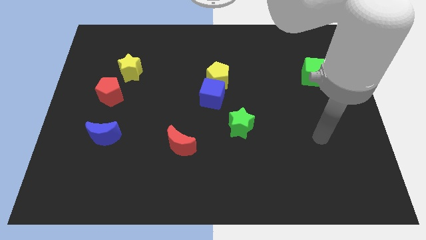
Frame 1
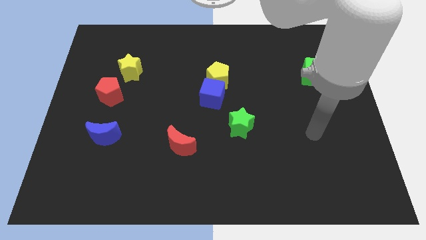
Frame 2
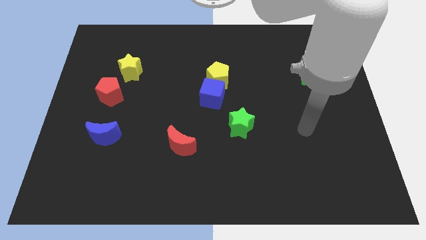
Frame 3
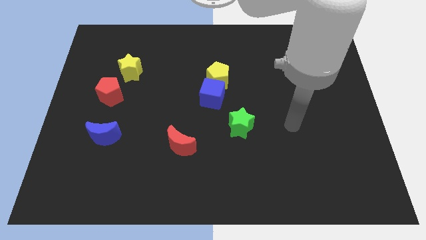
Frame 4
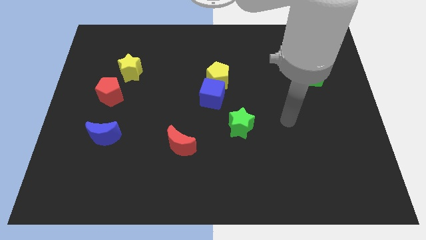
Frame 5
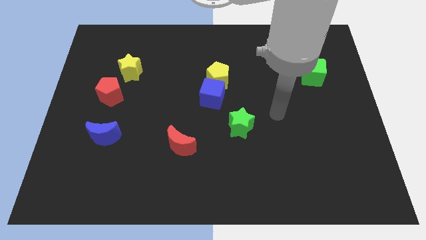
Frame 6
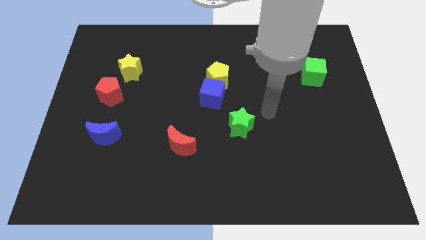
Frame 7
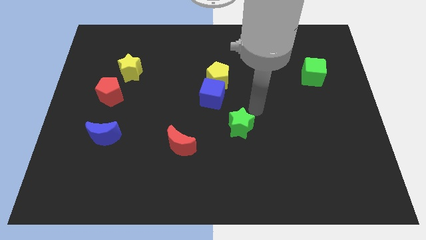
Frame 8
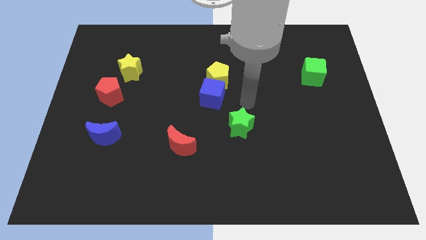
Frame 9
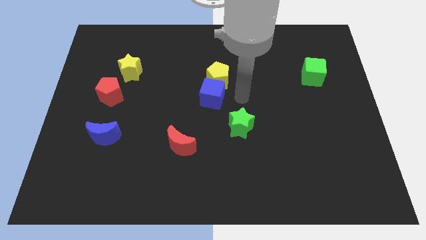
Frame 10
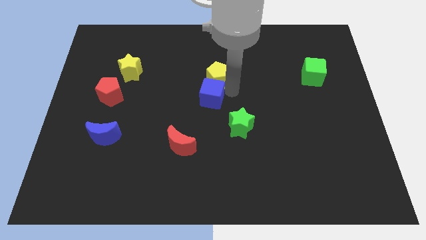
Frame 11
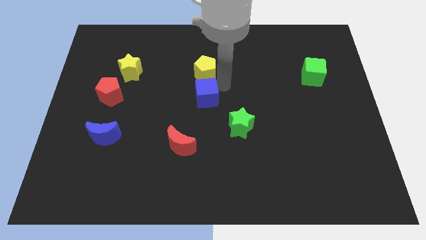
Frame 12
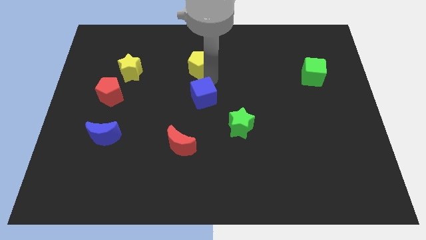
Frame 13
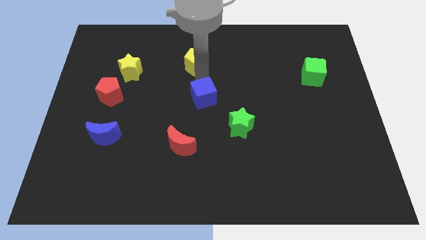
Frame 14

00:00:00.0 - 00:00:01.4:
separate the blue cube from the yellow pentagon

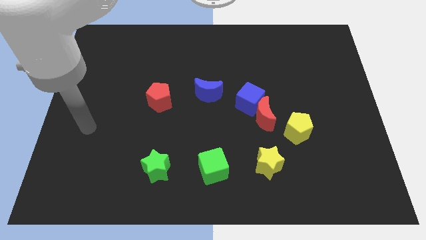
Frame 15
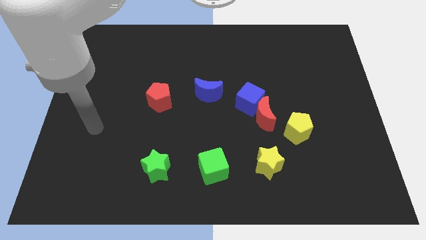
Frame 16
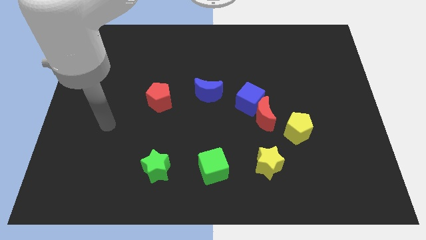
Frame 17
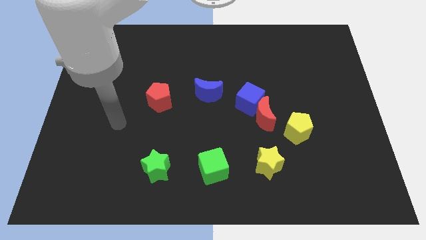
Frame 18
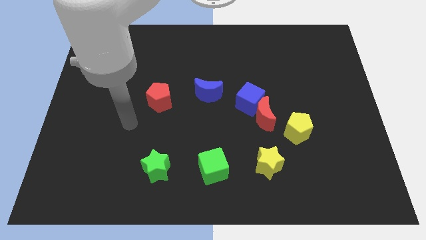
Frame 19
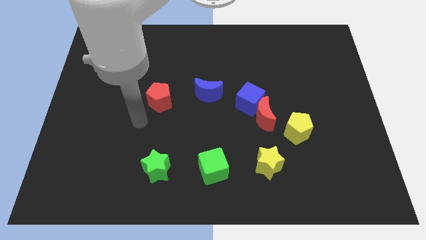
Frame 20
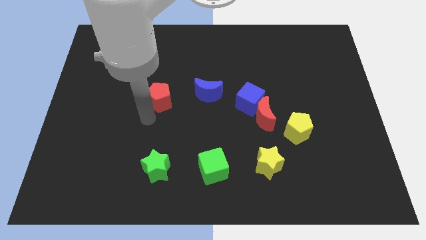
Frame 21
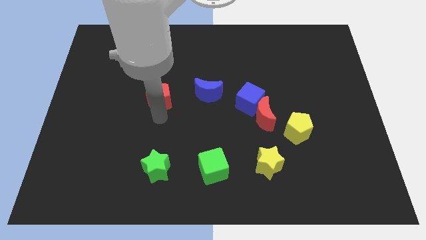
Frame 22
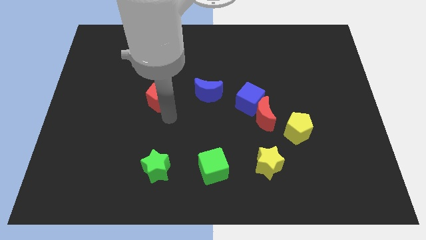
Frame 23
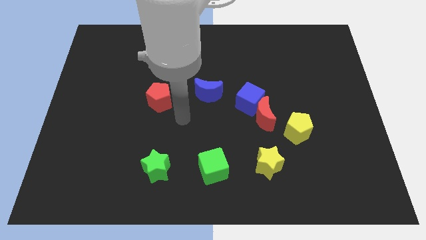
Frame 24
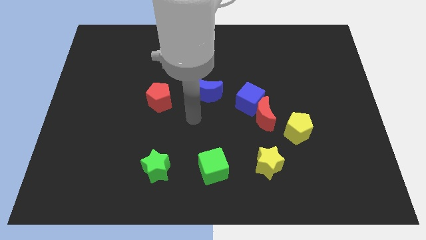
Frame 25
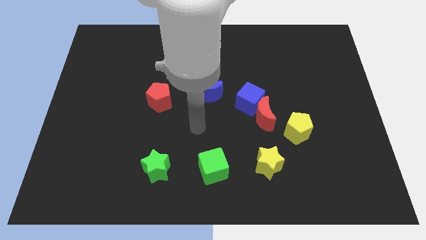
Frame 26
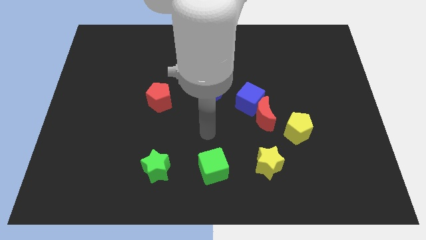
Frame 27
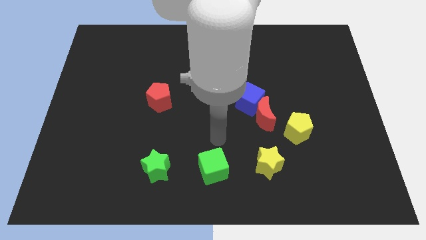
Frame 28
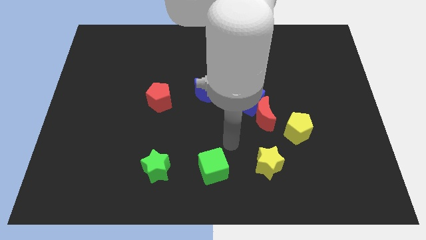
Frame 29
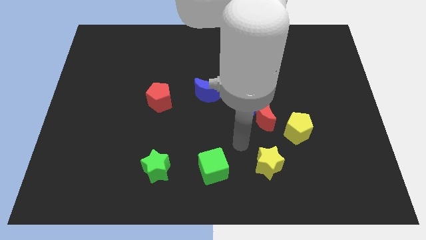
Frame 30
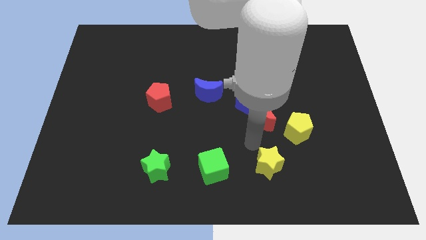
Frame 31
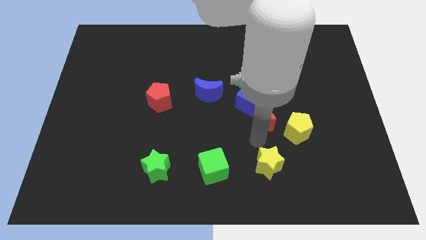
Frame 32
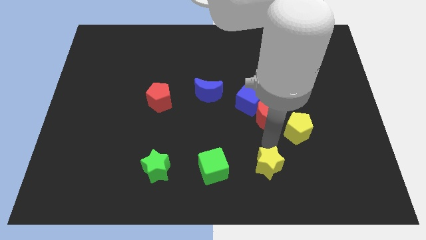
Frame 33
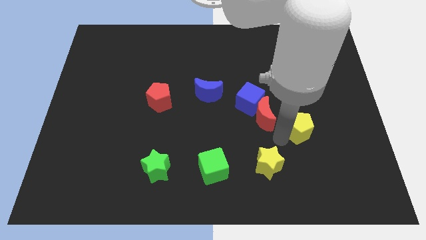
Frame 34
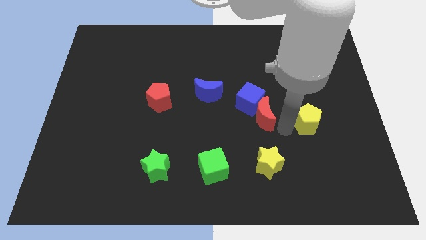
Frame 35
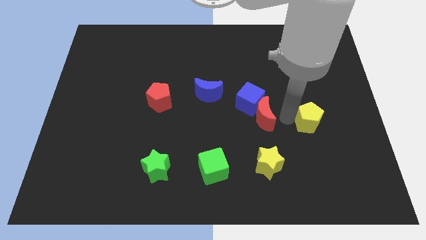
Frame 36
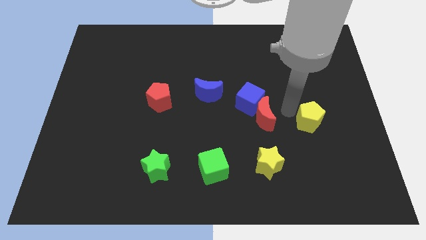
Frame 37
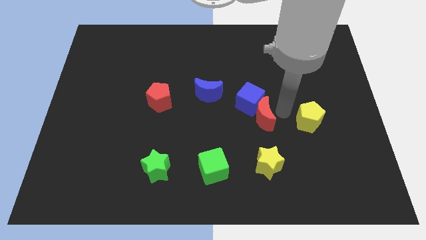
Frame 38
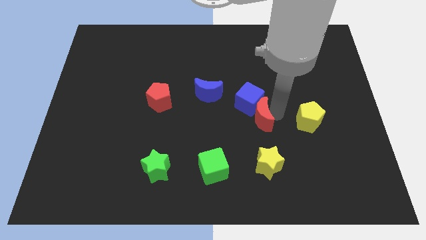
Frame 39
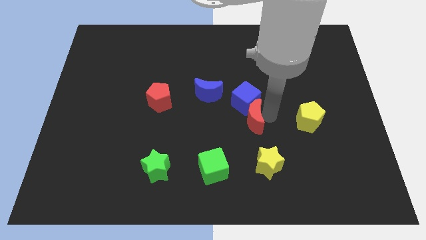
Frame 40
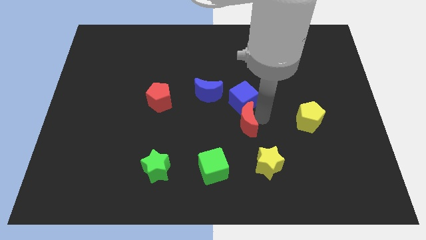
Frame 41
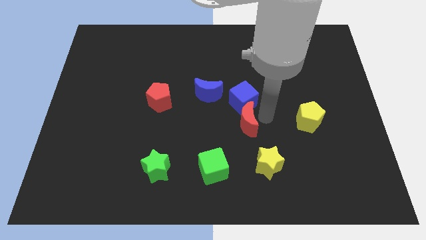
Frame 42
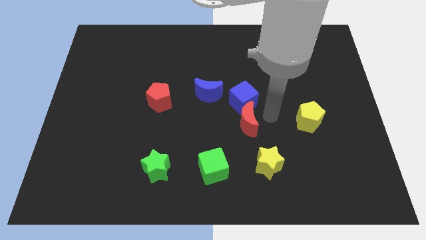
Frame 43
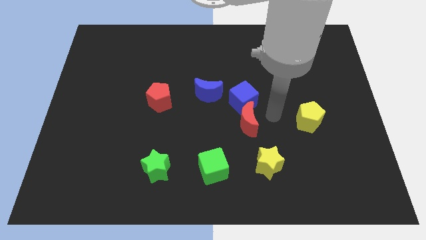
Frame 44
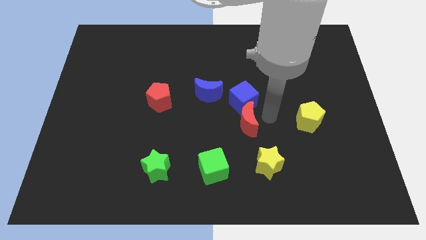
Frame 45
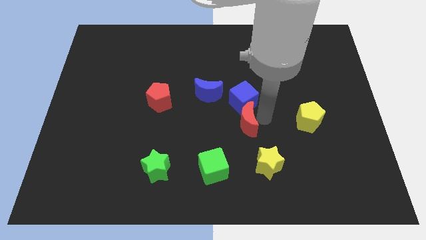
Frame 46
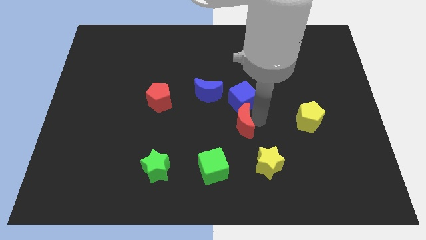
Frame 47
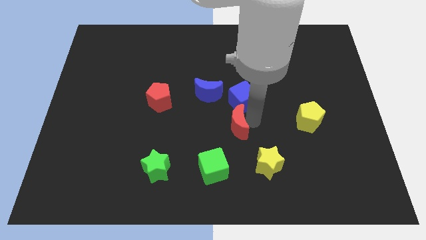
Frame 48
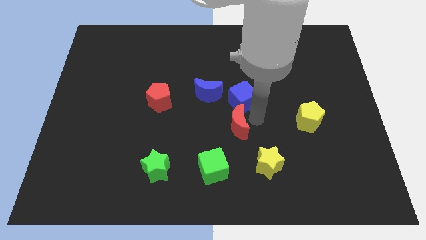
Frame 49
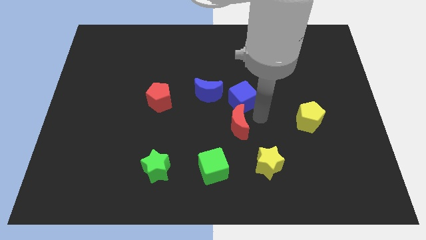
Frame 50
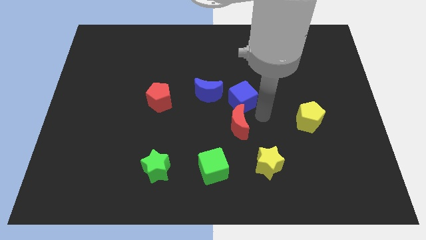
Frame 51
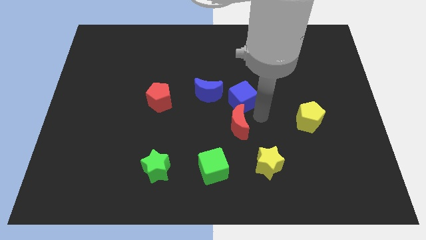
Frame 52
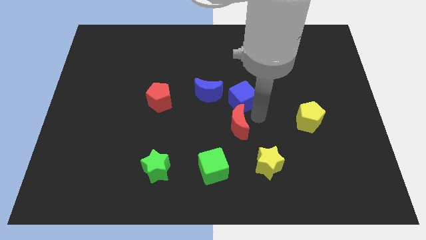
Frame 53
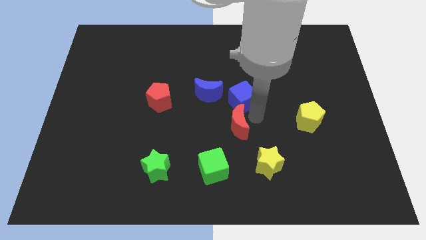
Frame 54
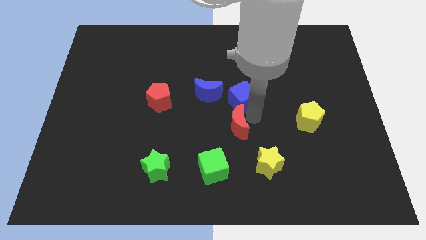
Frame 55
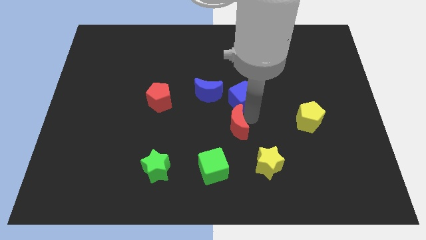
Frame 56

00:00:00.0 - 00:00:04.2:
separate the red moon from the blue cube and yellow pentagon

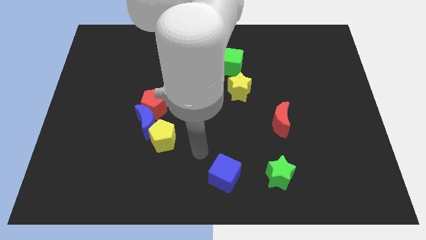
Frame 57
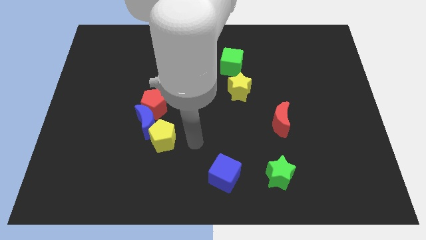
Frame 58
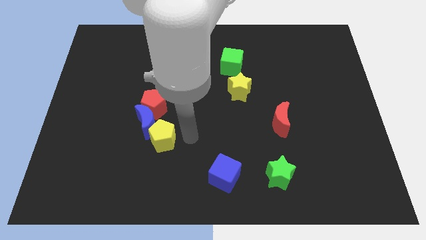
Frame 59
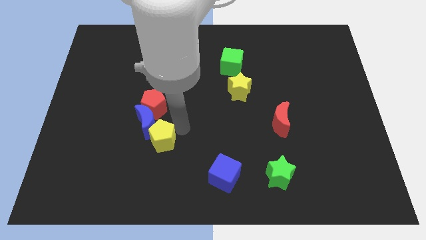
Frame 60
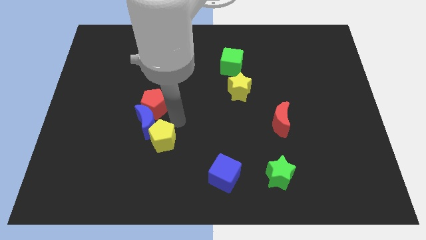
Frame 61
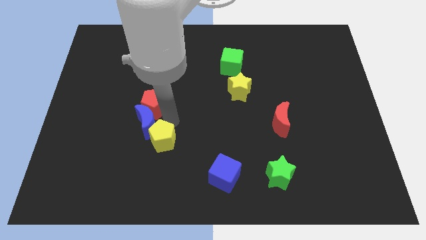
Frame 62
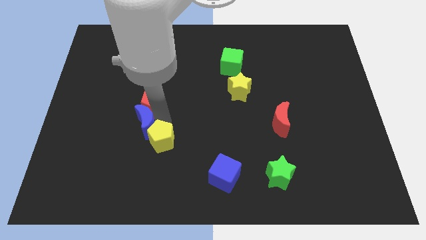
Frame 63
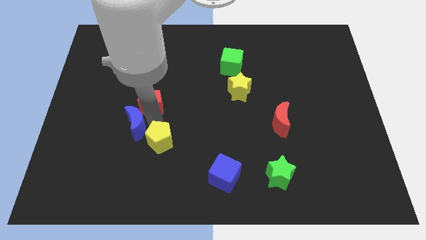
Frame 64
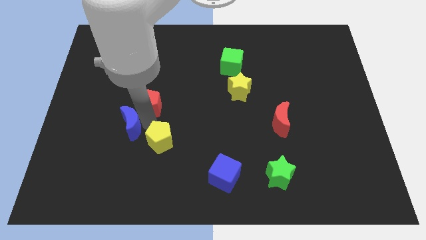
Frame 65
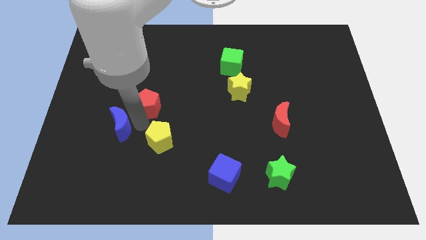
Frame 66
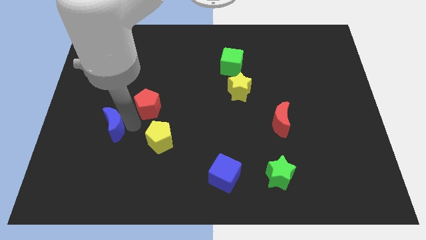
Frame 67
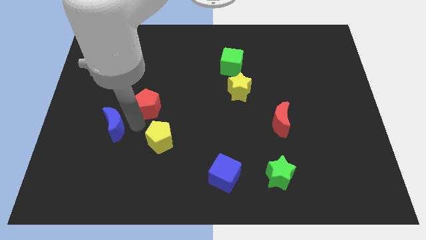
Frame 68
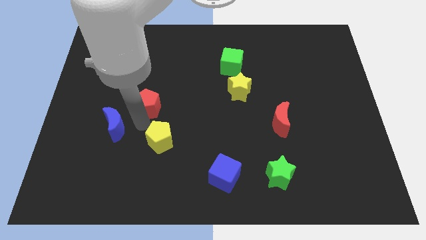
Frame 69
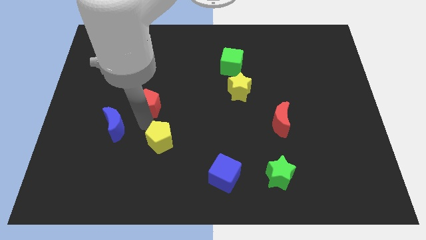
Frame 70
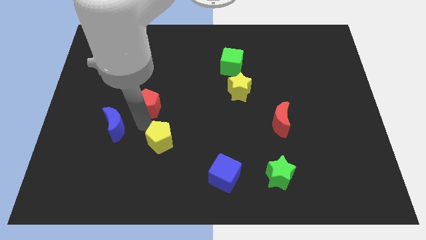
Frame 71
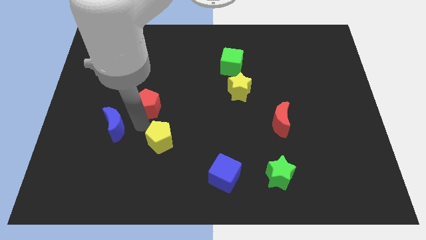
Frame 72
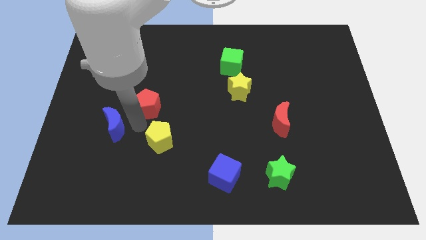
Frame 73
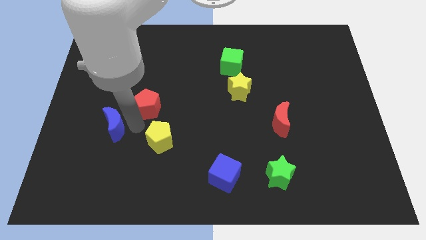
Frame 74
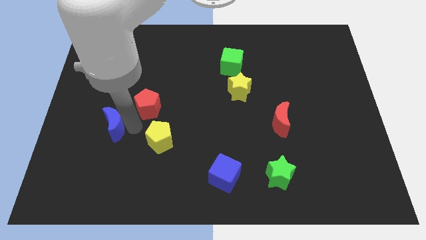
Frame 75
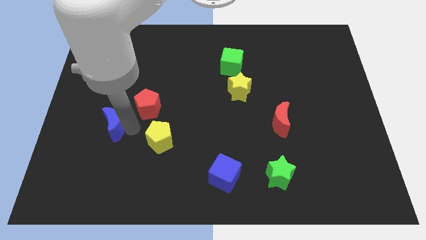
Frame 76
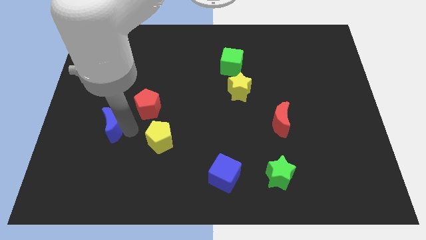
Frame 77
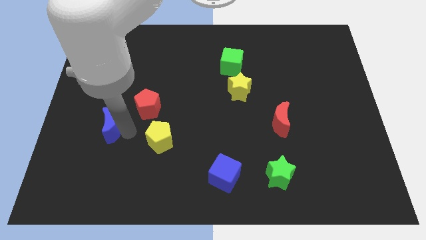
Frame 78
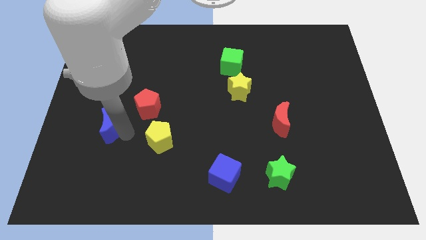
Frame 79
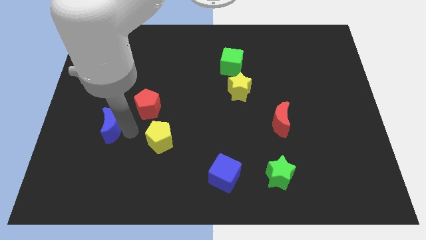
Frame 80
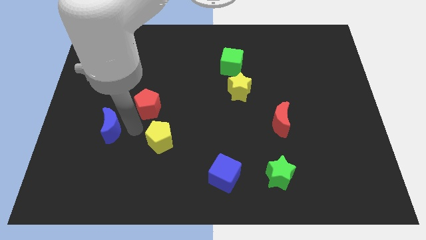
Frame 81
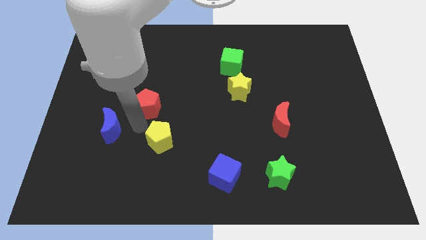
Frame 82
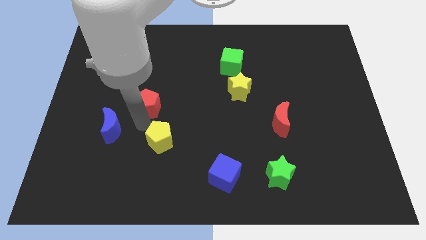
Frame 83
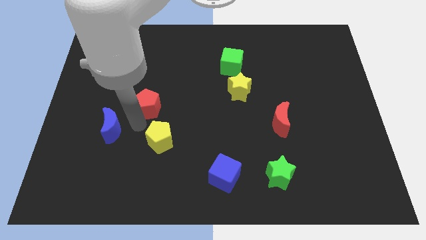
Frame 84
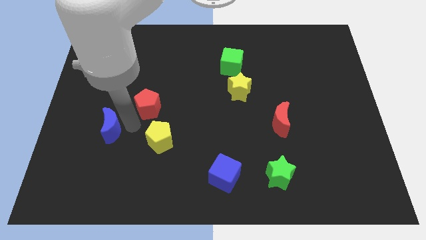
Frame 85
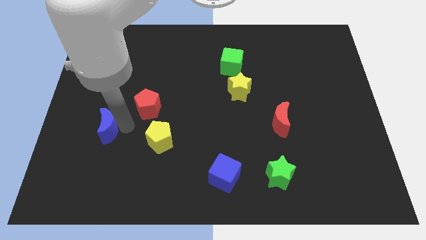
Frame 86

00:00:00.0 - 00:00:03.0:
move the blue moon away from the red pentagon and yellow pentagon

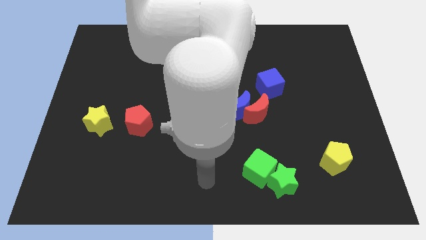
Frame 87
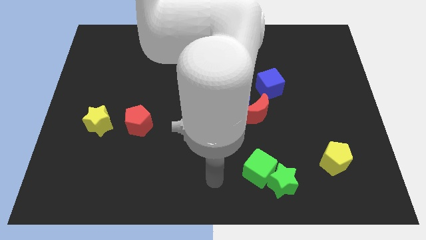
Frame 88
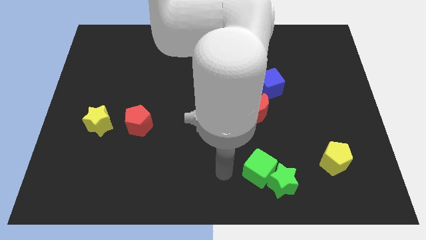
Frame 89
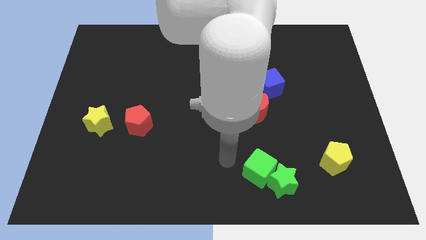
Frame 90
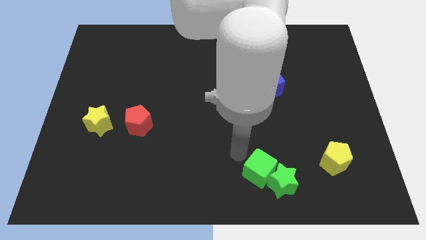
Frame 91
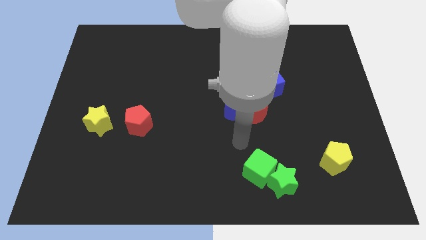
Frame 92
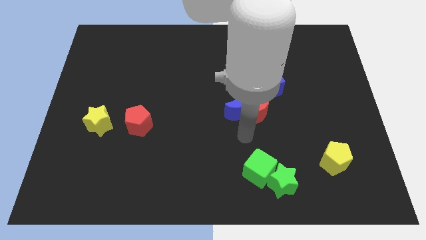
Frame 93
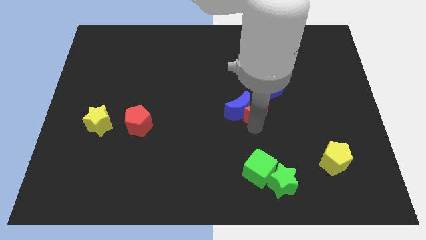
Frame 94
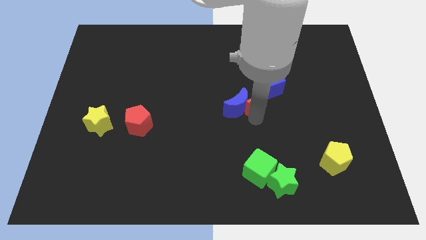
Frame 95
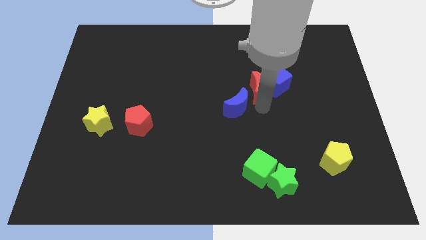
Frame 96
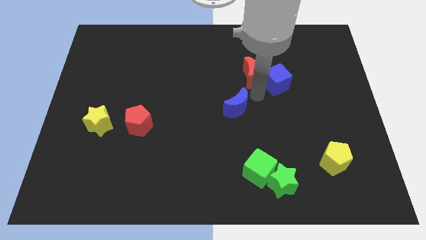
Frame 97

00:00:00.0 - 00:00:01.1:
pull the blue moon apart from the red moon
